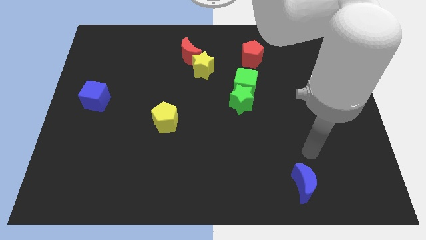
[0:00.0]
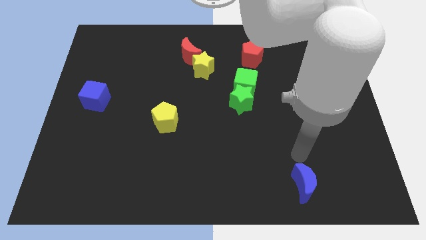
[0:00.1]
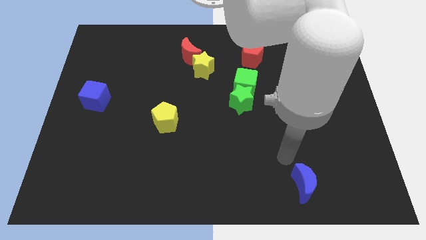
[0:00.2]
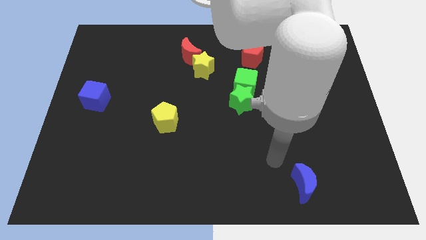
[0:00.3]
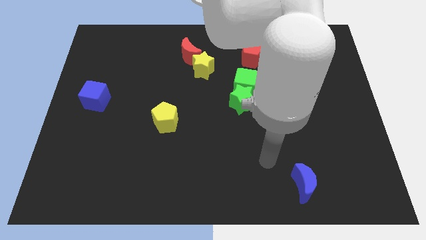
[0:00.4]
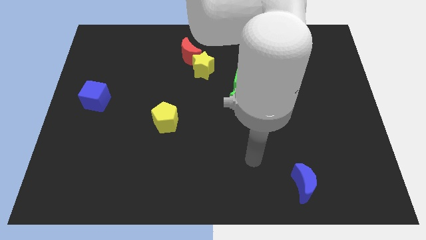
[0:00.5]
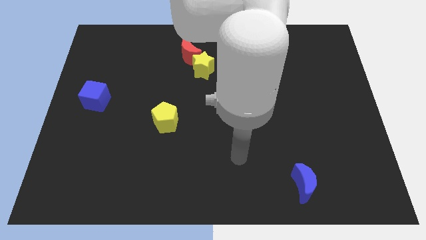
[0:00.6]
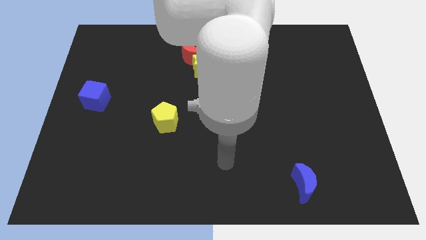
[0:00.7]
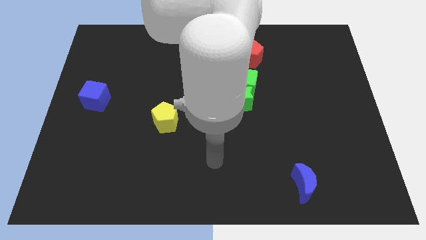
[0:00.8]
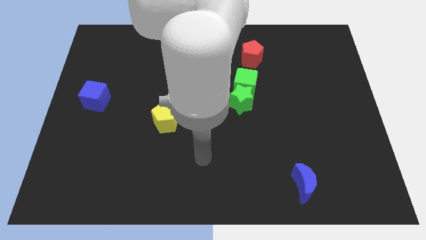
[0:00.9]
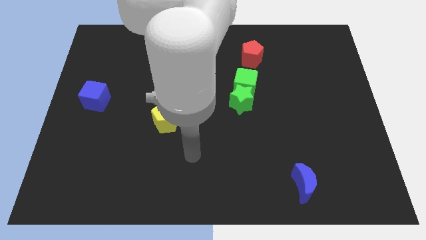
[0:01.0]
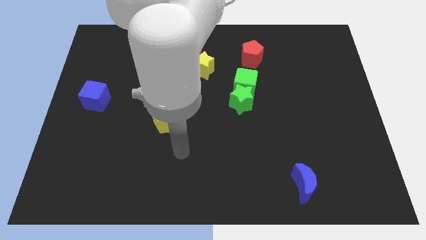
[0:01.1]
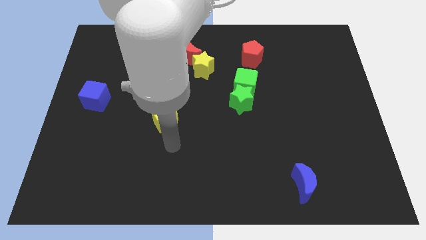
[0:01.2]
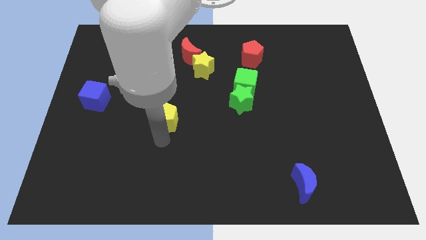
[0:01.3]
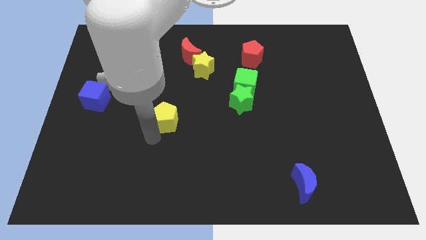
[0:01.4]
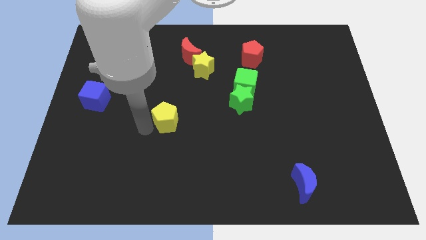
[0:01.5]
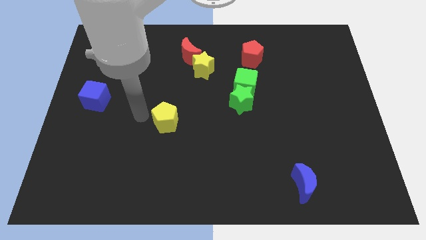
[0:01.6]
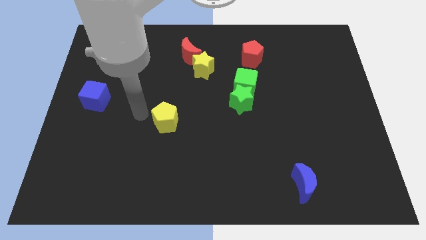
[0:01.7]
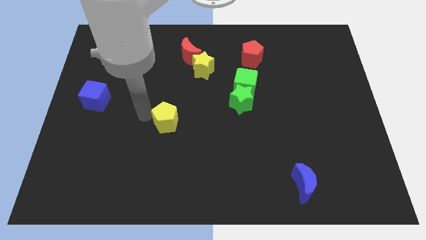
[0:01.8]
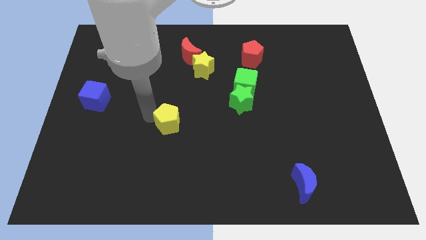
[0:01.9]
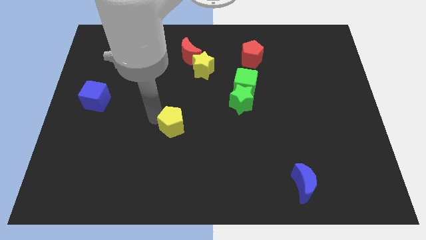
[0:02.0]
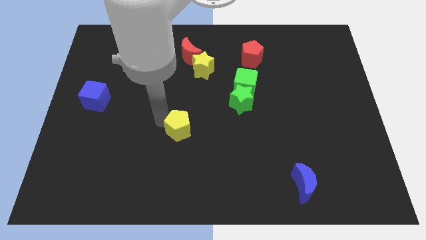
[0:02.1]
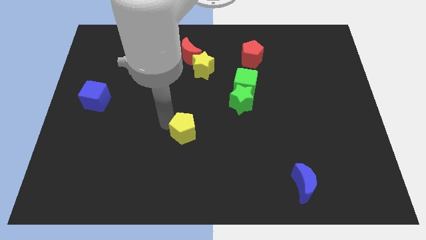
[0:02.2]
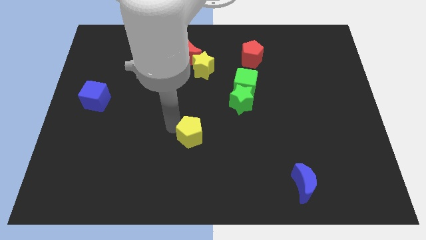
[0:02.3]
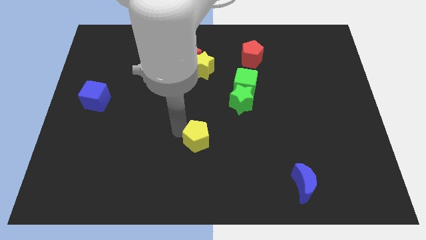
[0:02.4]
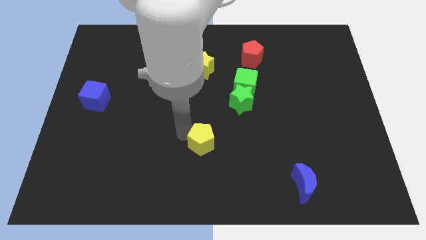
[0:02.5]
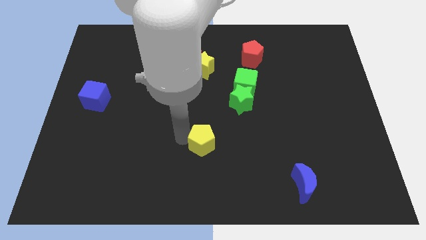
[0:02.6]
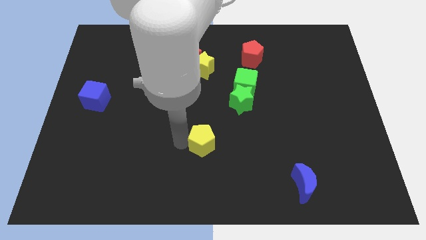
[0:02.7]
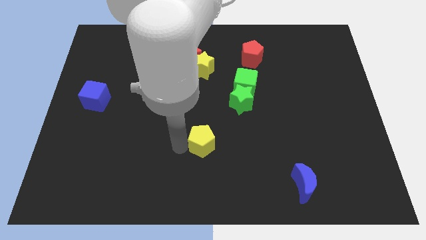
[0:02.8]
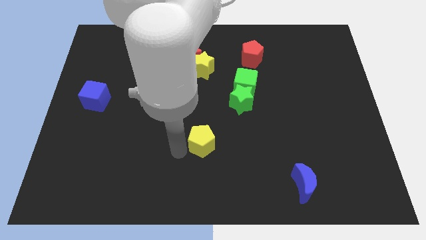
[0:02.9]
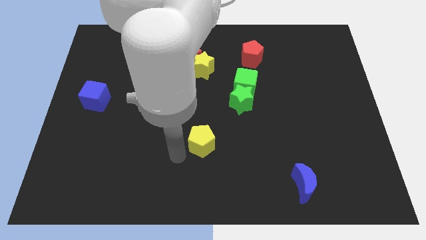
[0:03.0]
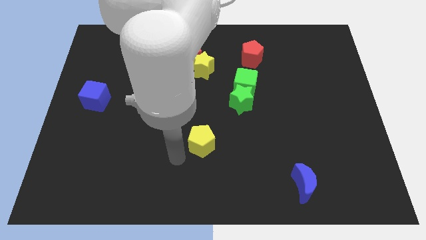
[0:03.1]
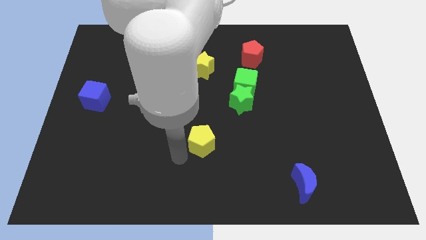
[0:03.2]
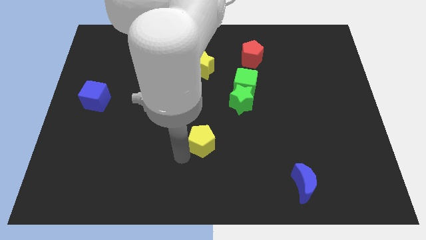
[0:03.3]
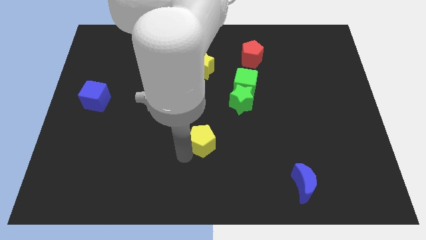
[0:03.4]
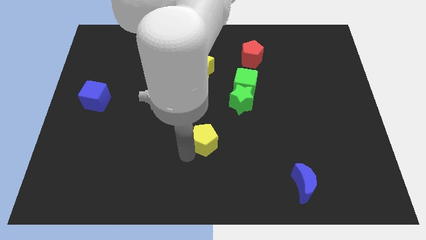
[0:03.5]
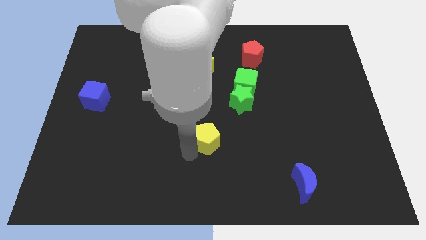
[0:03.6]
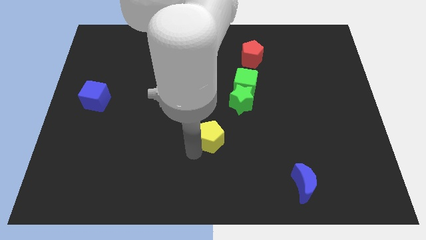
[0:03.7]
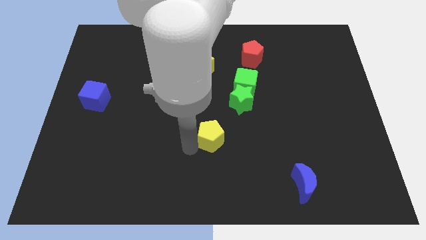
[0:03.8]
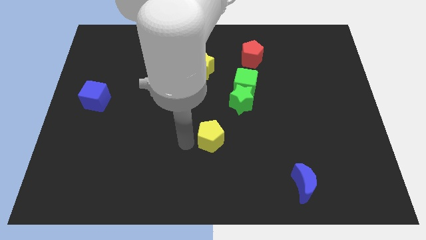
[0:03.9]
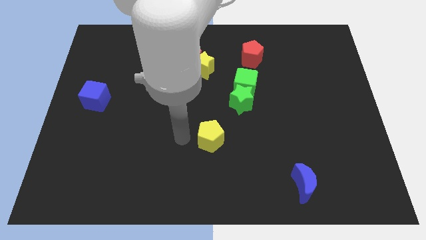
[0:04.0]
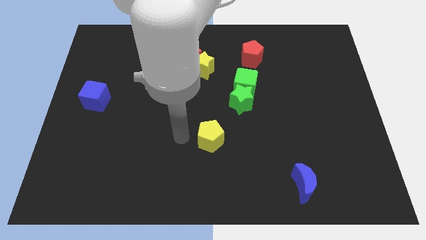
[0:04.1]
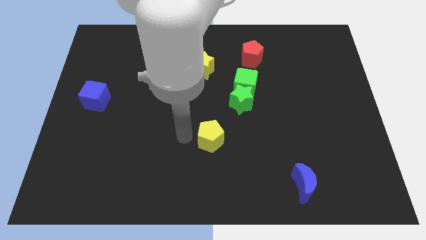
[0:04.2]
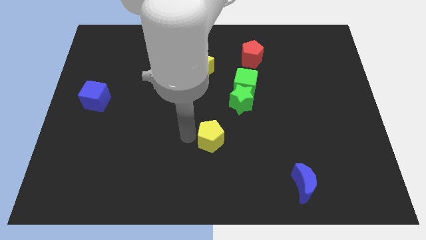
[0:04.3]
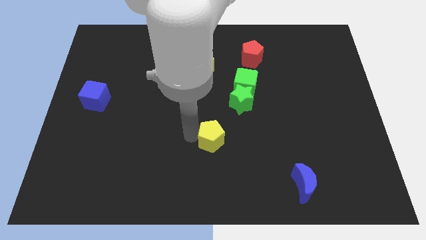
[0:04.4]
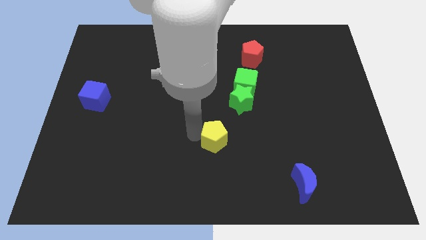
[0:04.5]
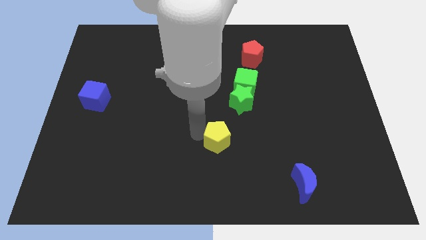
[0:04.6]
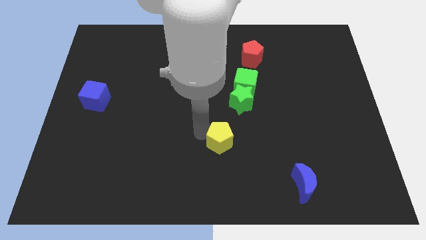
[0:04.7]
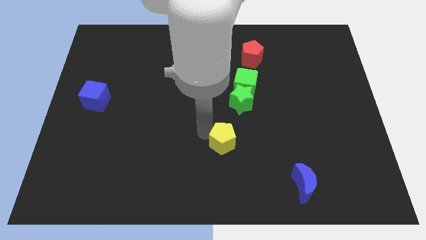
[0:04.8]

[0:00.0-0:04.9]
slide the yellow pentagon to the bottom of the green star

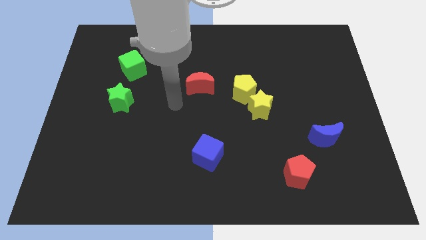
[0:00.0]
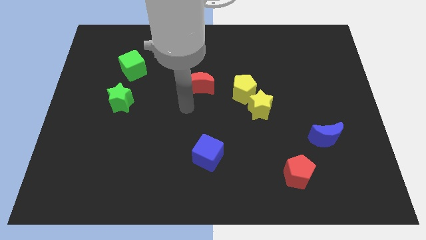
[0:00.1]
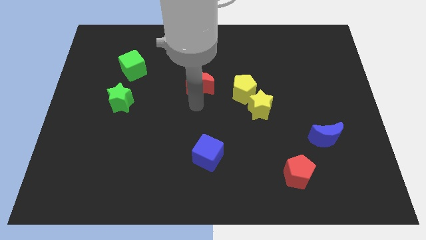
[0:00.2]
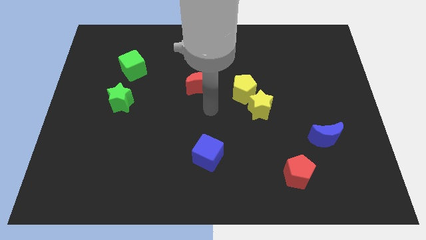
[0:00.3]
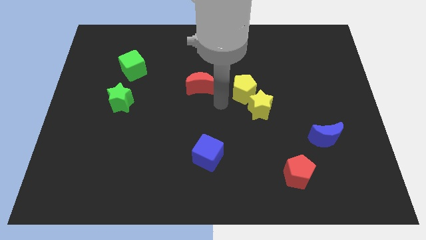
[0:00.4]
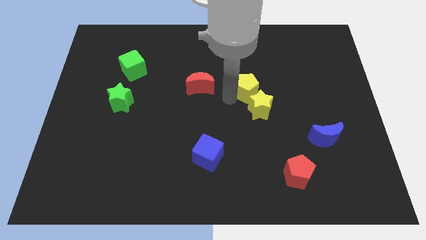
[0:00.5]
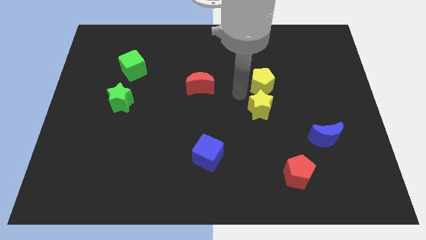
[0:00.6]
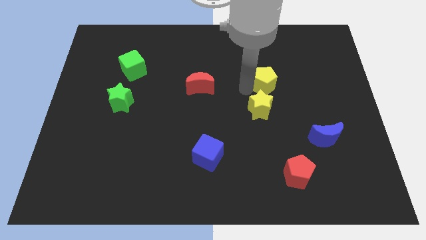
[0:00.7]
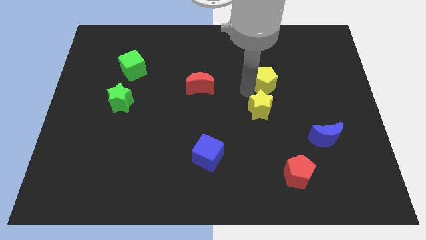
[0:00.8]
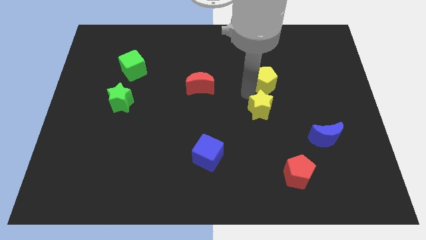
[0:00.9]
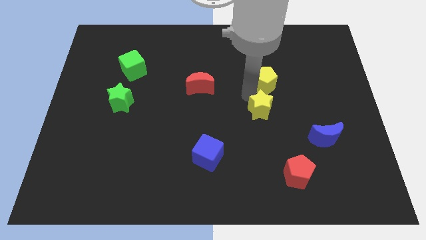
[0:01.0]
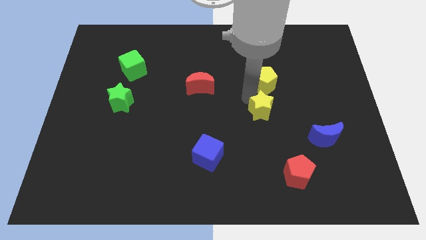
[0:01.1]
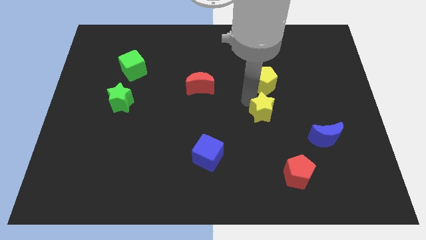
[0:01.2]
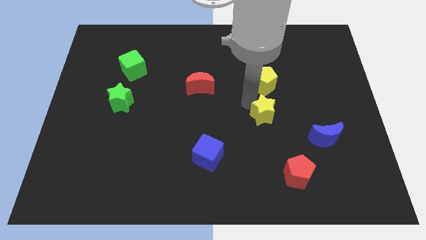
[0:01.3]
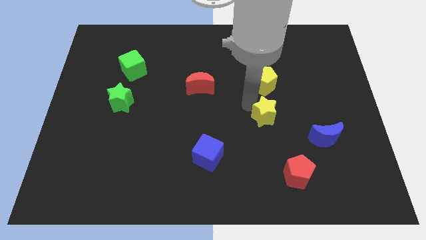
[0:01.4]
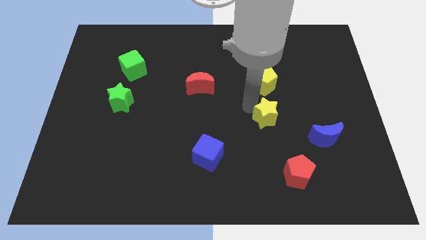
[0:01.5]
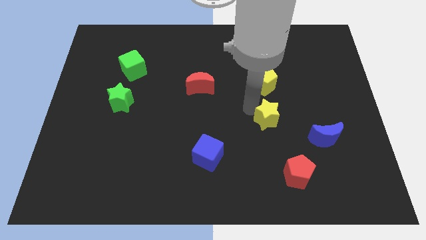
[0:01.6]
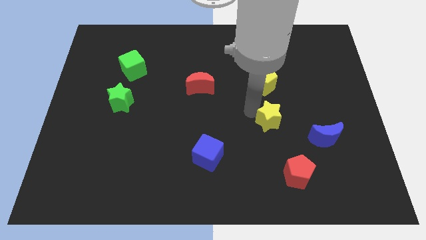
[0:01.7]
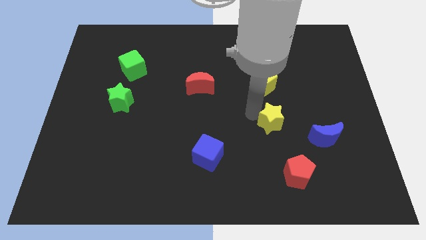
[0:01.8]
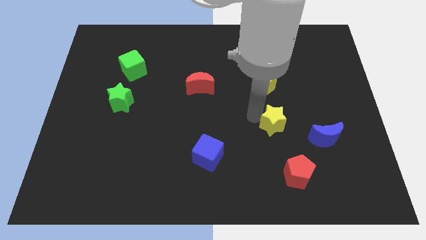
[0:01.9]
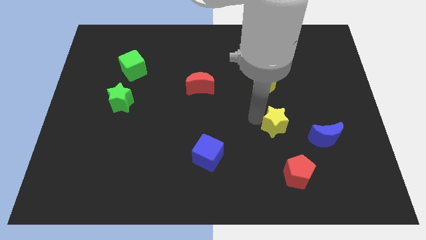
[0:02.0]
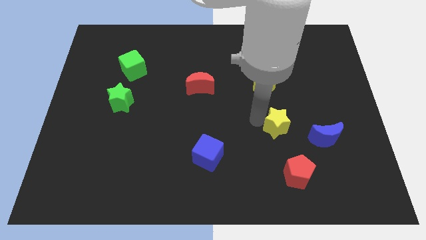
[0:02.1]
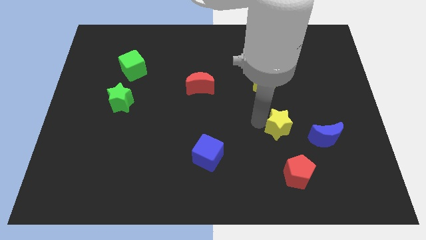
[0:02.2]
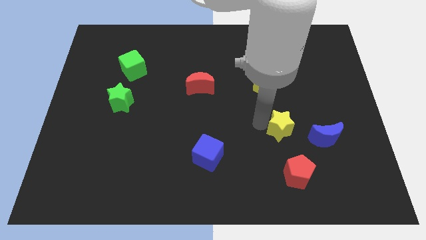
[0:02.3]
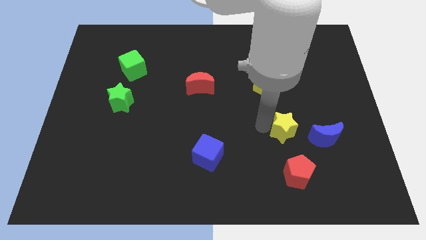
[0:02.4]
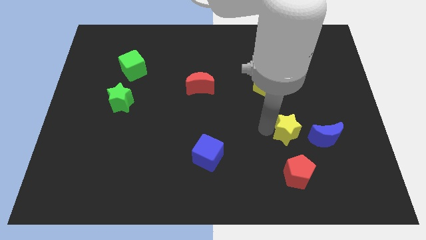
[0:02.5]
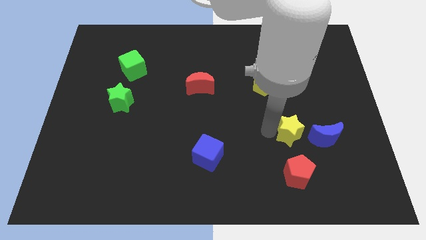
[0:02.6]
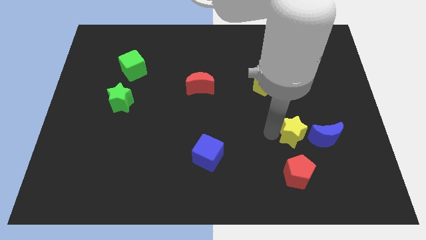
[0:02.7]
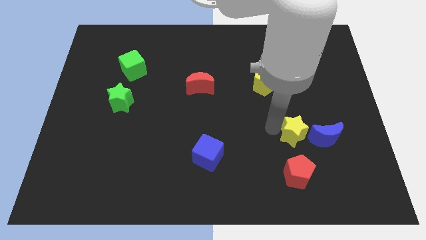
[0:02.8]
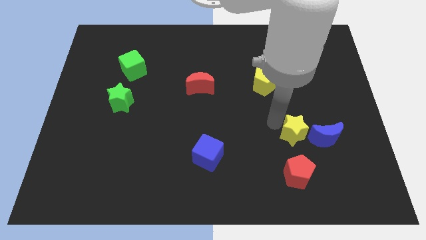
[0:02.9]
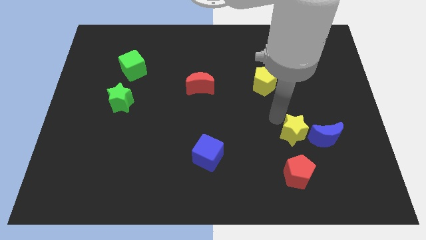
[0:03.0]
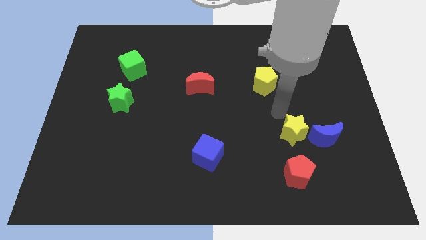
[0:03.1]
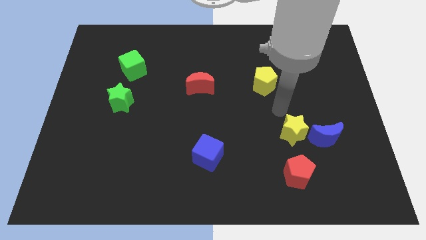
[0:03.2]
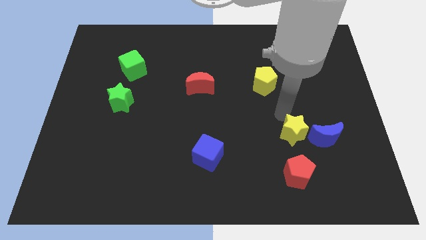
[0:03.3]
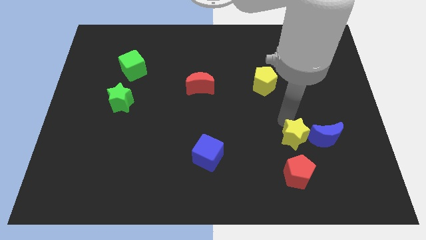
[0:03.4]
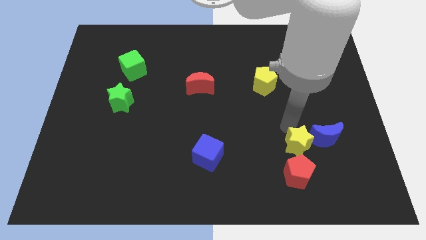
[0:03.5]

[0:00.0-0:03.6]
move the yellow star to the bottom left side of the blue moon
